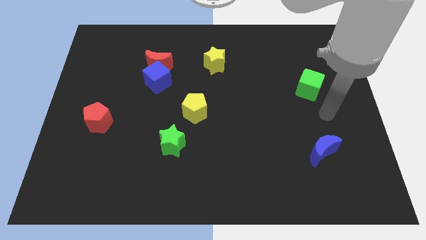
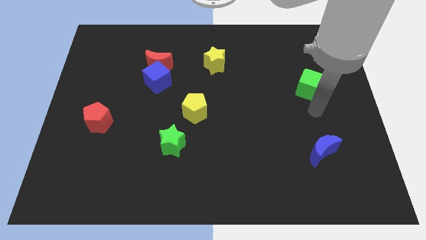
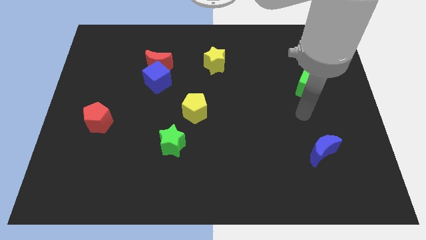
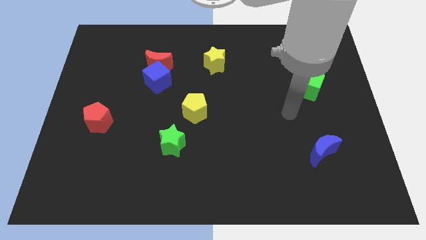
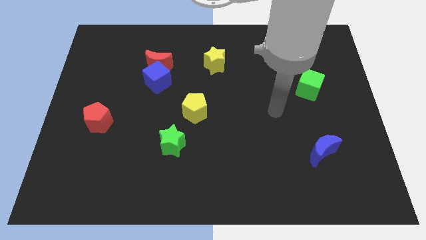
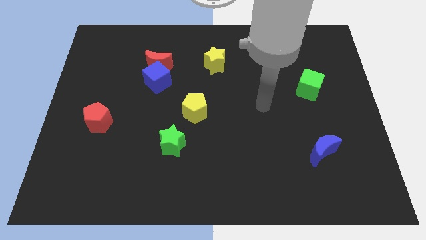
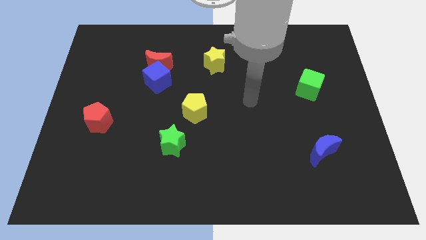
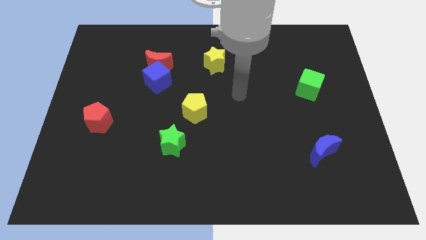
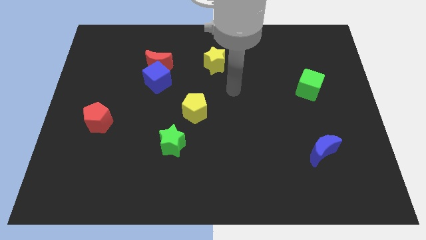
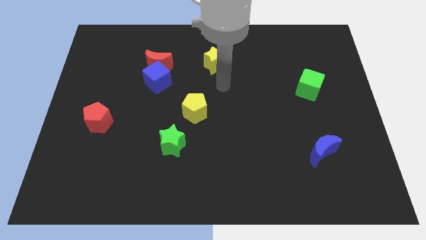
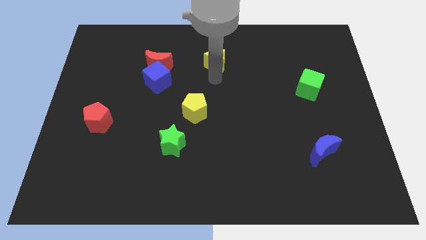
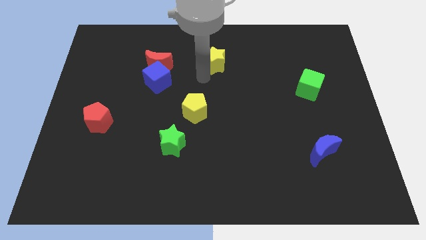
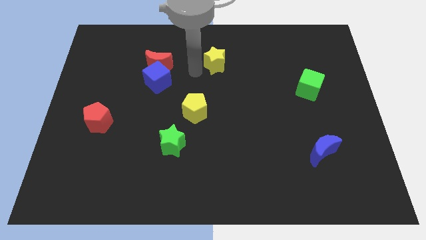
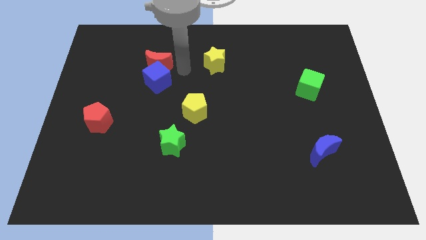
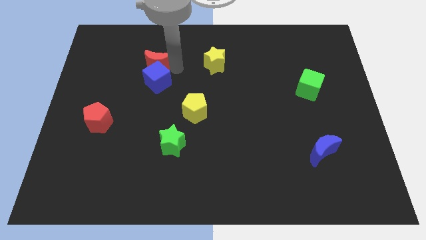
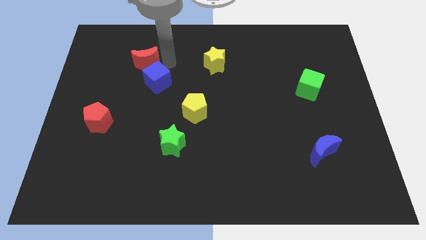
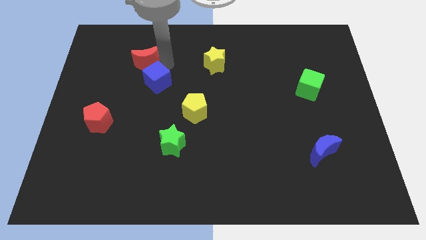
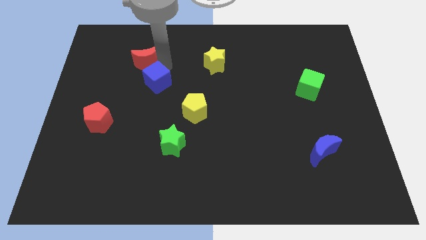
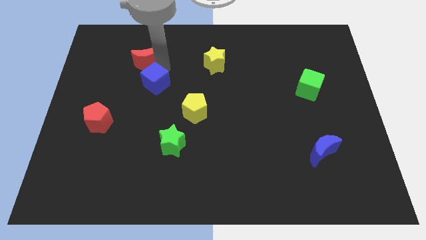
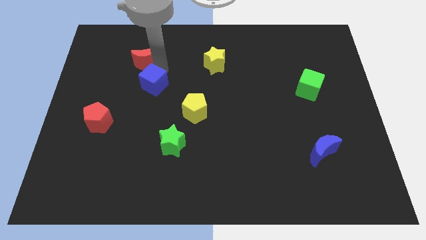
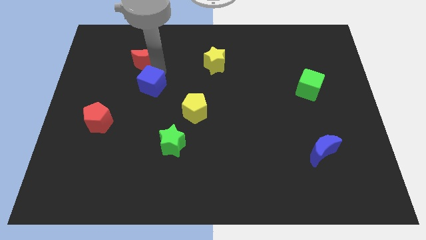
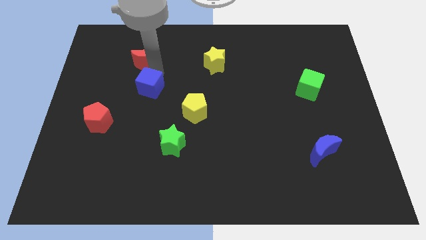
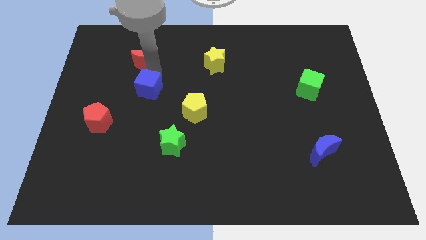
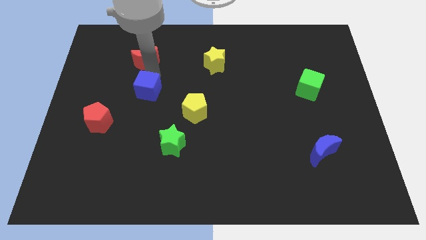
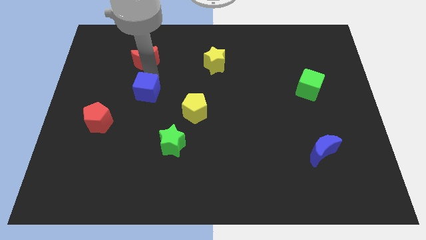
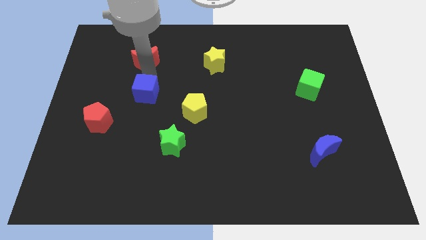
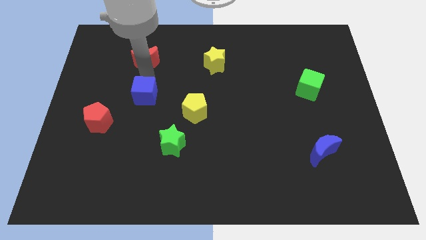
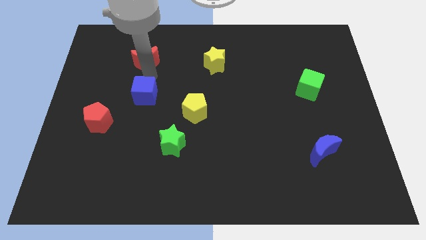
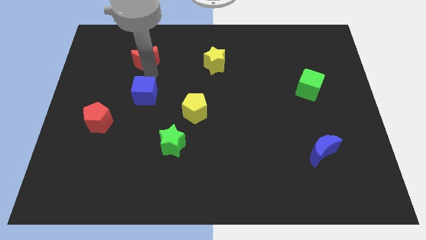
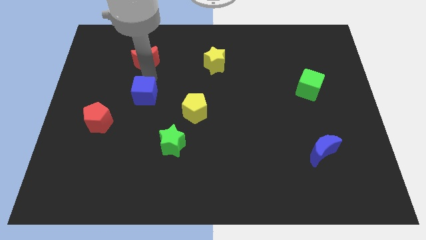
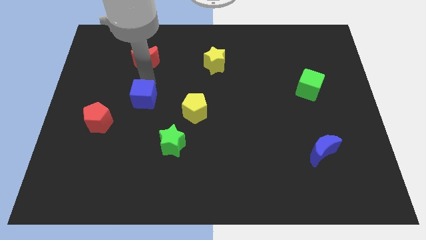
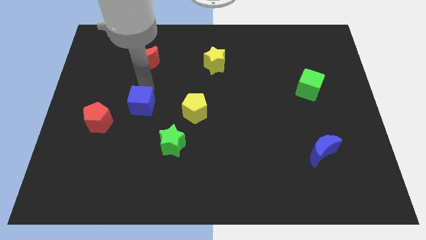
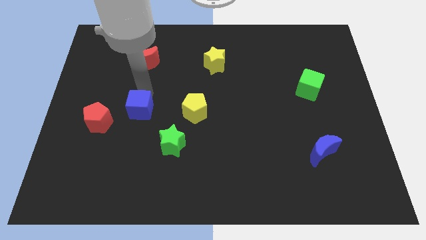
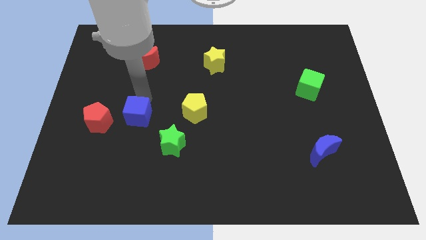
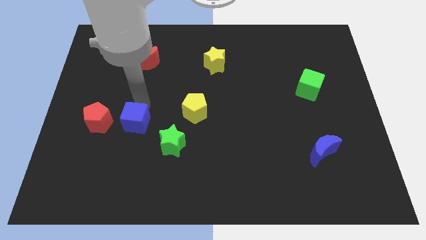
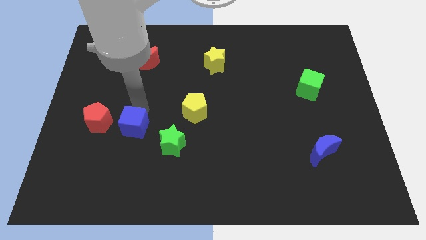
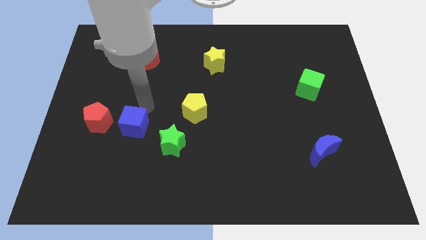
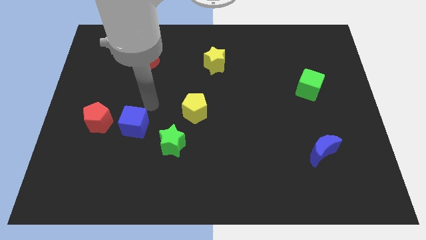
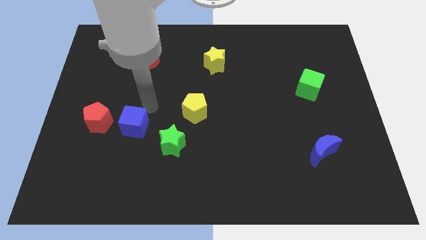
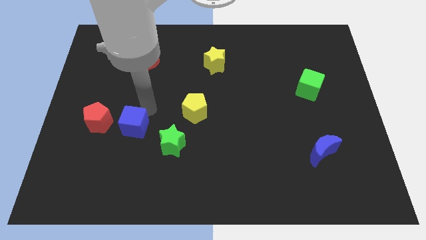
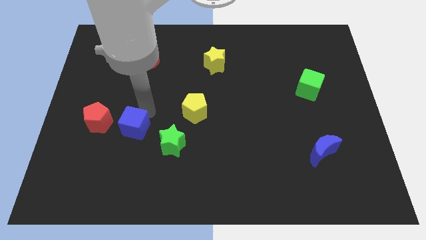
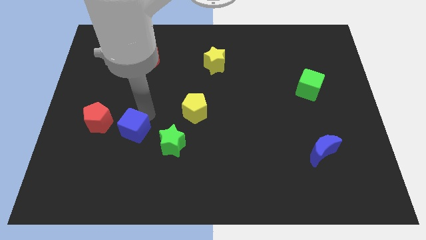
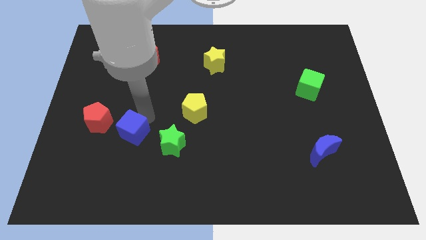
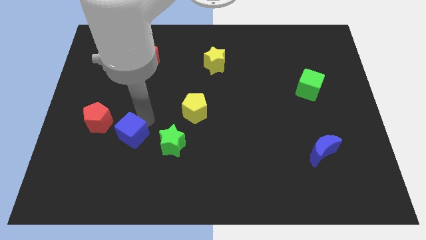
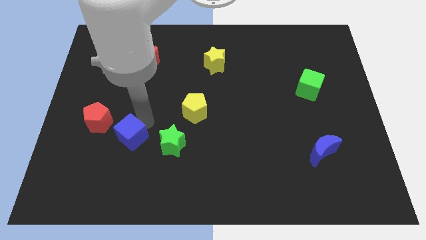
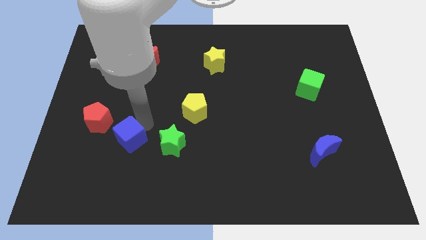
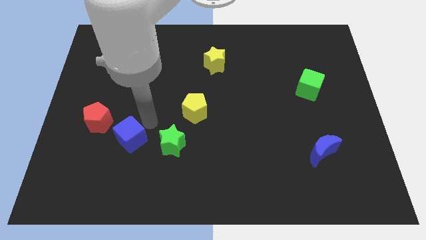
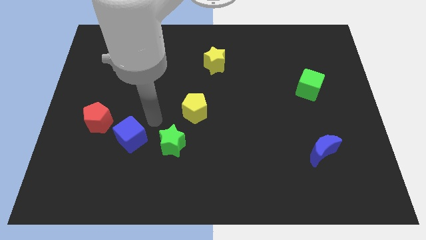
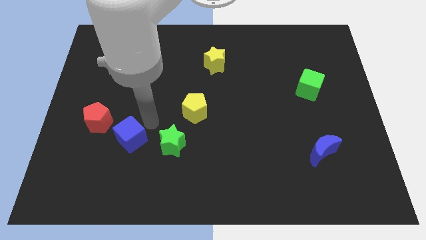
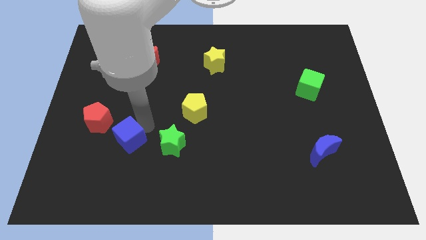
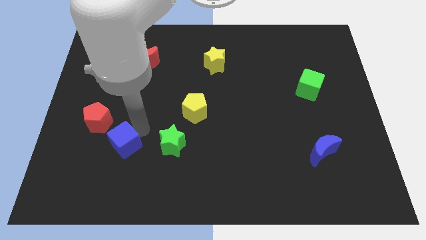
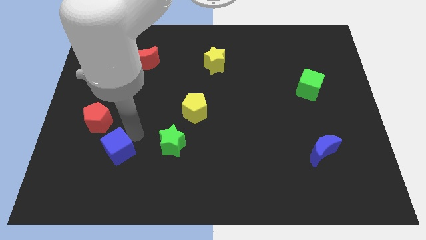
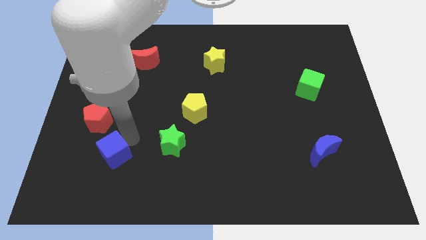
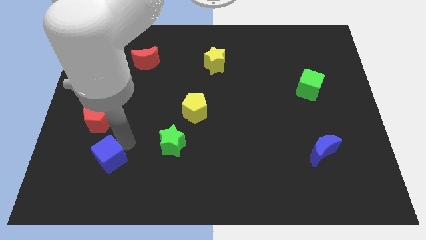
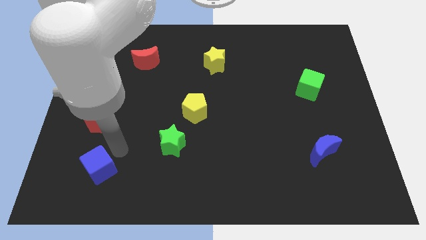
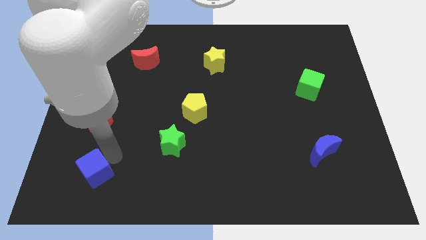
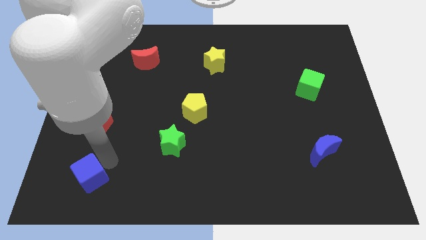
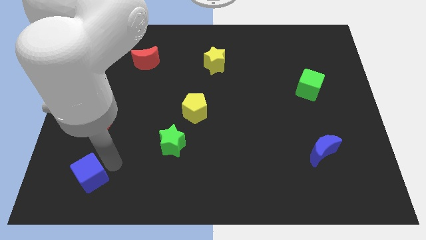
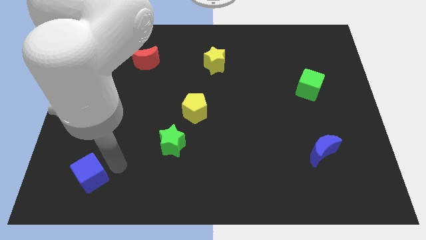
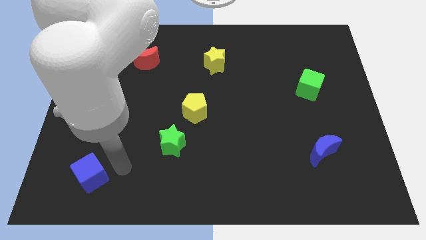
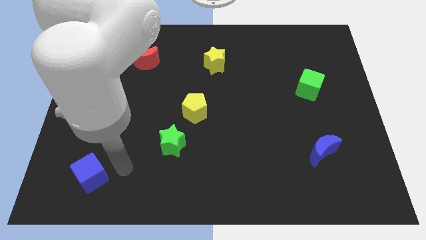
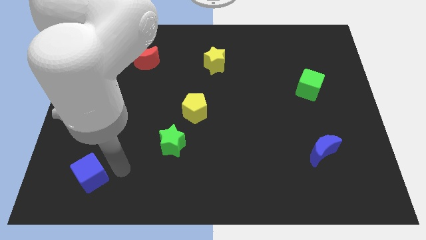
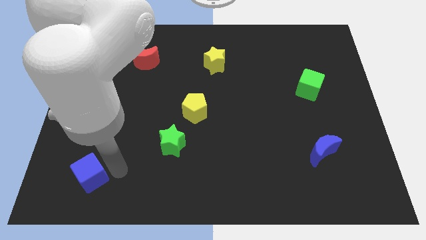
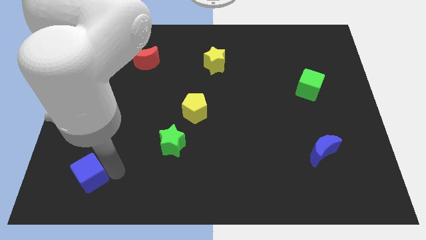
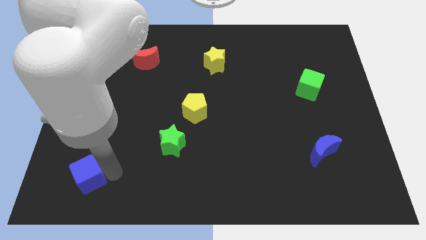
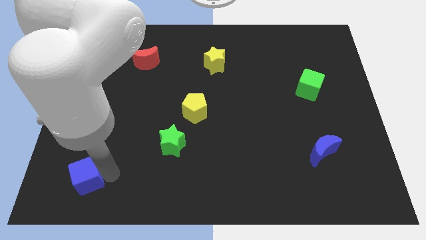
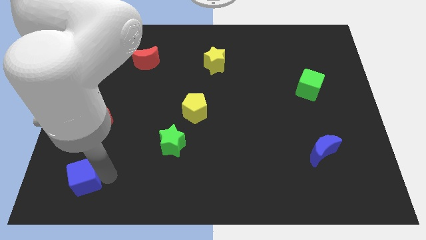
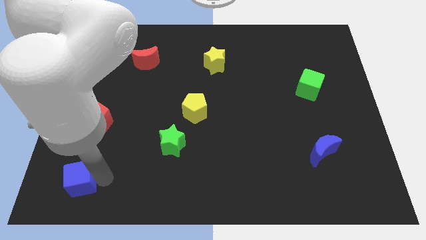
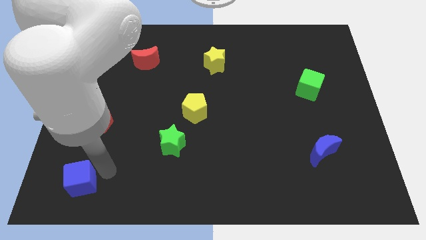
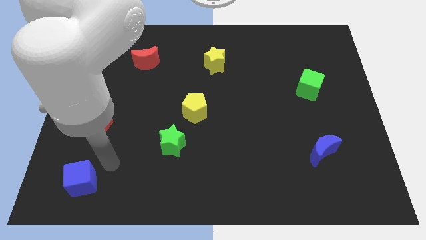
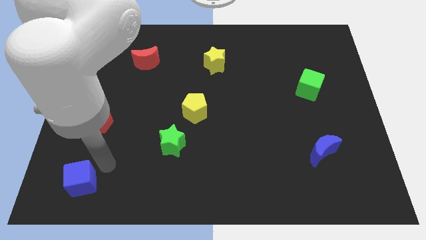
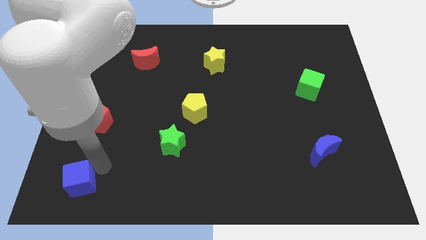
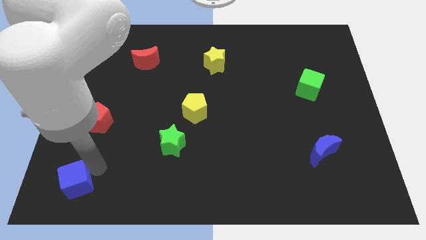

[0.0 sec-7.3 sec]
push the blue cube to the lower left corner
